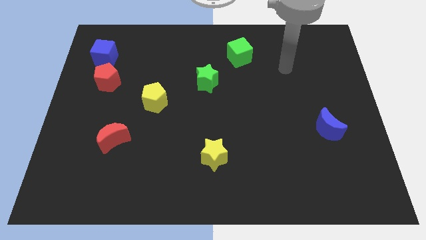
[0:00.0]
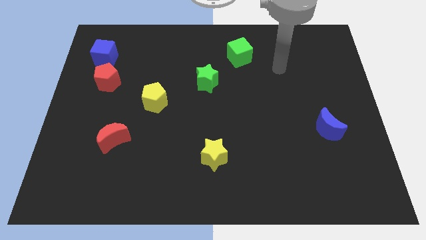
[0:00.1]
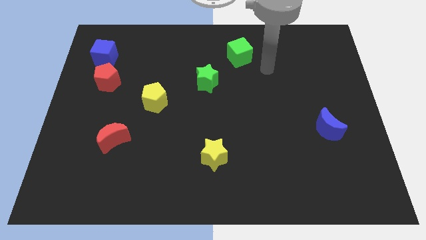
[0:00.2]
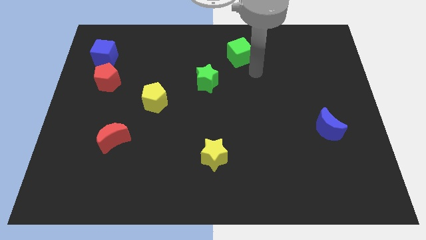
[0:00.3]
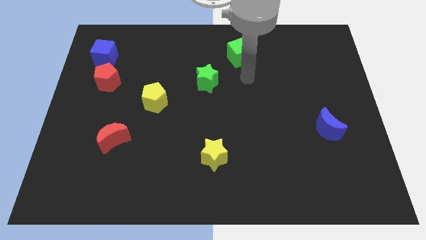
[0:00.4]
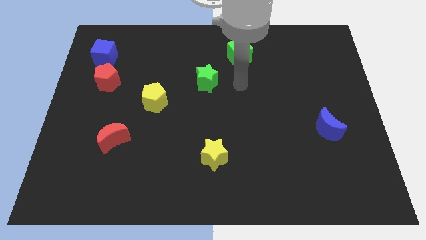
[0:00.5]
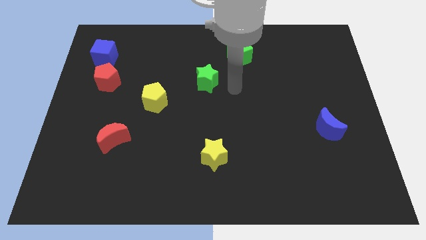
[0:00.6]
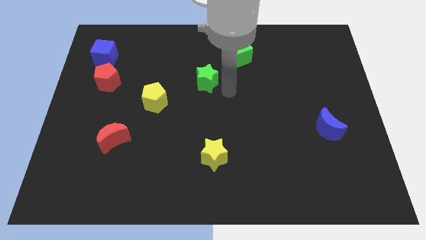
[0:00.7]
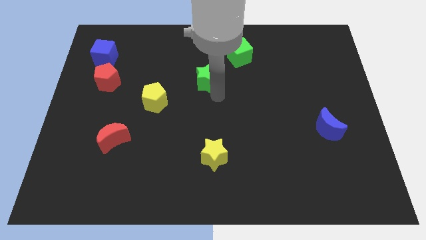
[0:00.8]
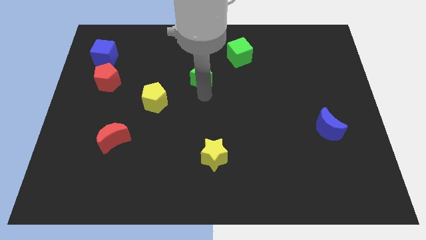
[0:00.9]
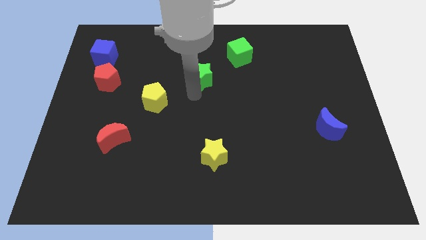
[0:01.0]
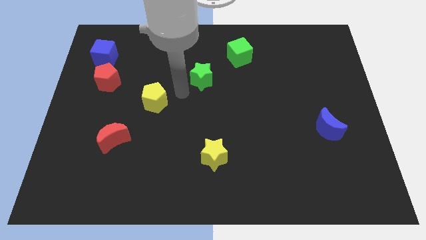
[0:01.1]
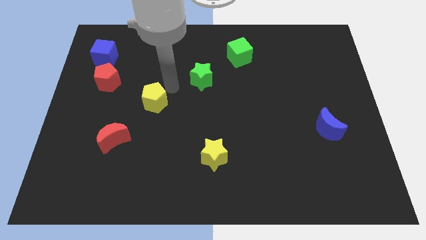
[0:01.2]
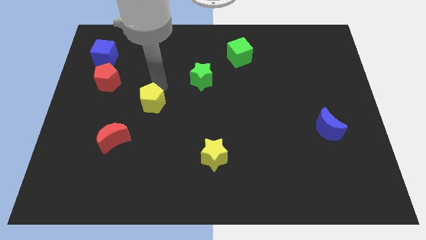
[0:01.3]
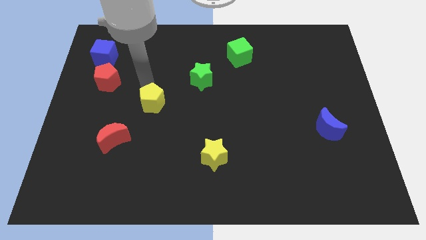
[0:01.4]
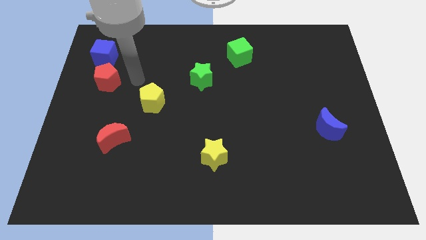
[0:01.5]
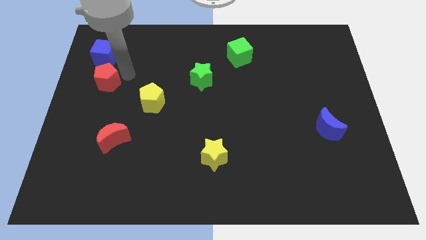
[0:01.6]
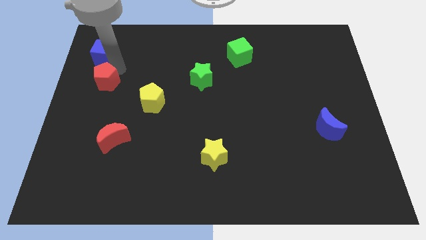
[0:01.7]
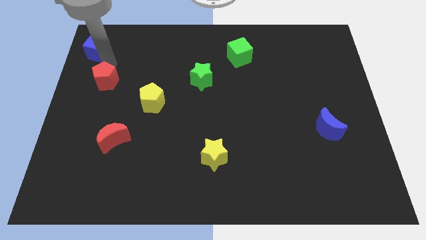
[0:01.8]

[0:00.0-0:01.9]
pull the red pentagon apart from the blue cube

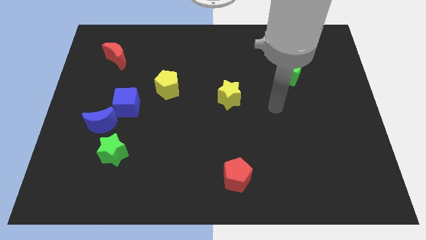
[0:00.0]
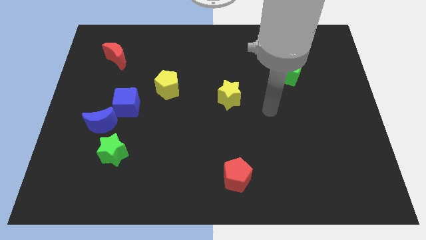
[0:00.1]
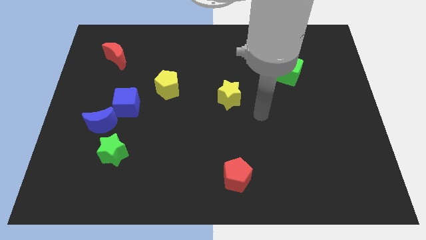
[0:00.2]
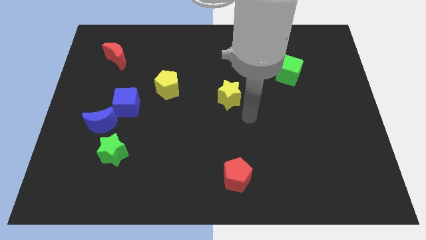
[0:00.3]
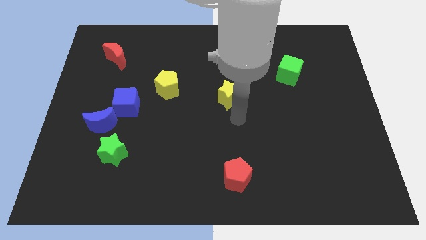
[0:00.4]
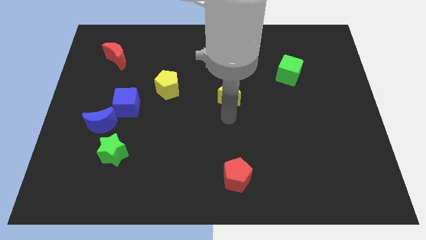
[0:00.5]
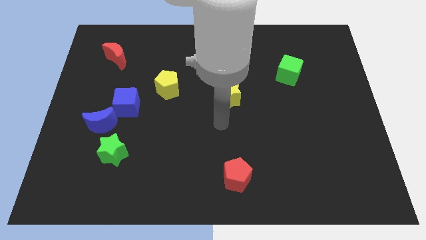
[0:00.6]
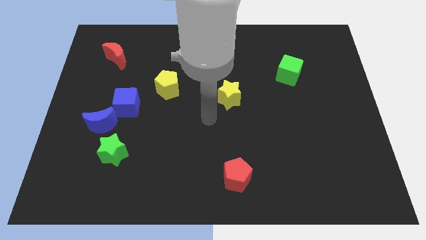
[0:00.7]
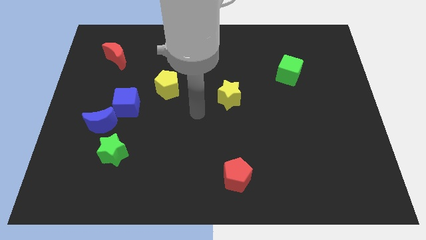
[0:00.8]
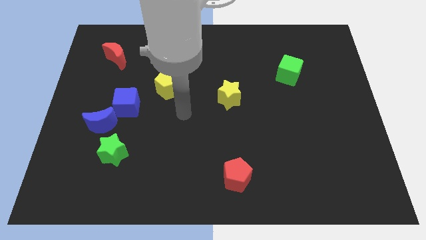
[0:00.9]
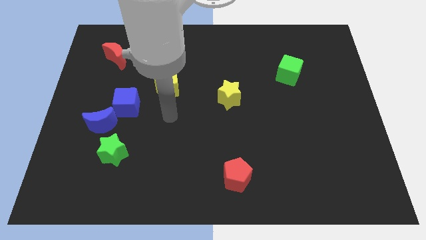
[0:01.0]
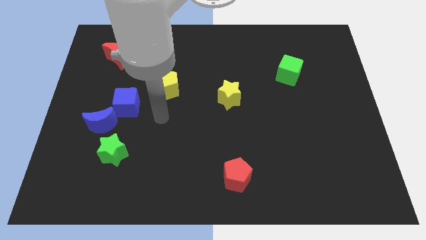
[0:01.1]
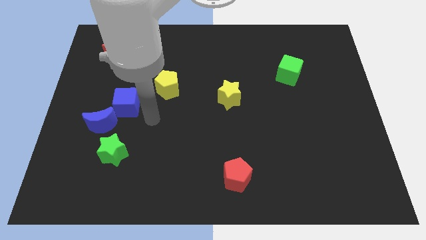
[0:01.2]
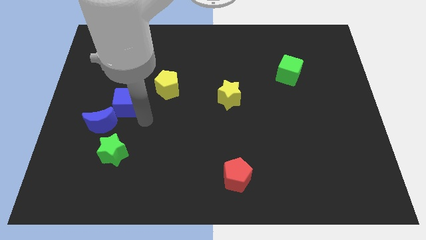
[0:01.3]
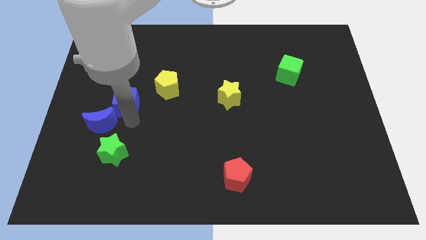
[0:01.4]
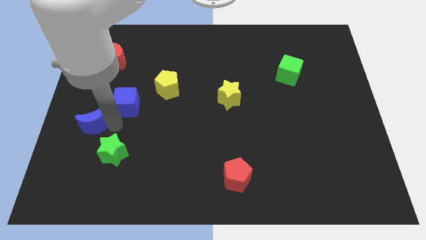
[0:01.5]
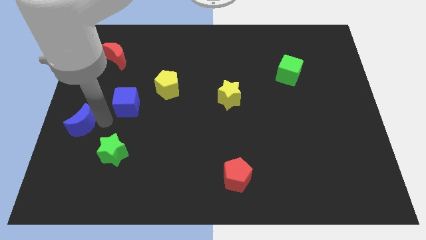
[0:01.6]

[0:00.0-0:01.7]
separate the blue cube from the blue moon

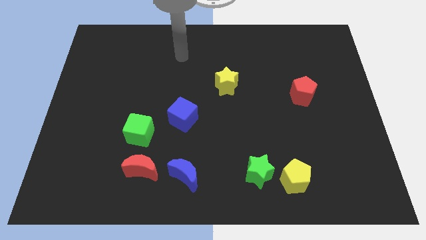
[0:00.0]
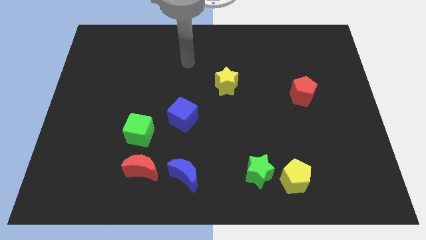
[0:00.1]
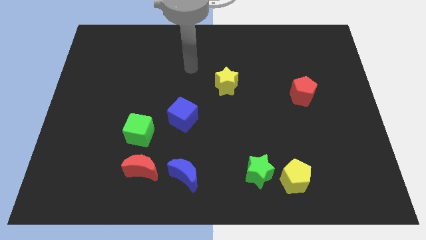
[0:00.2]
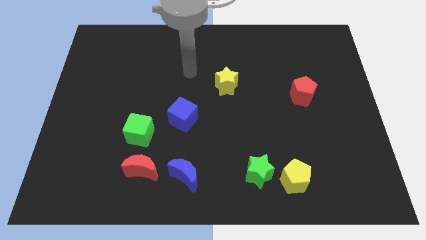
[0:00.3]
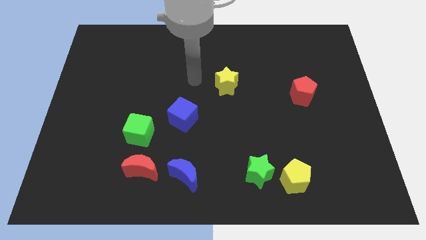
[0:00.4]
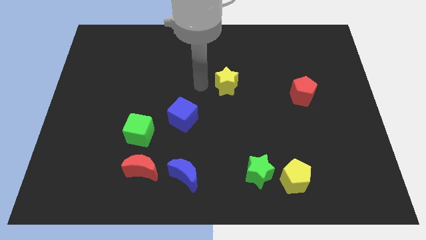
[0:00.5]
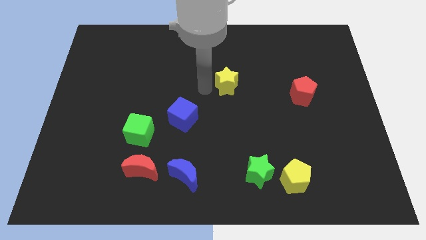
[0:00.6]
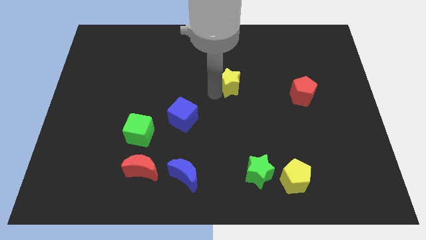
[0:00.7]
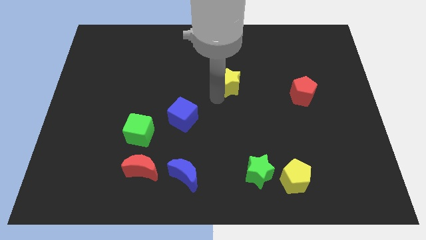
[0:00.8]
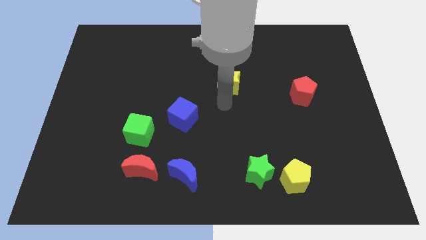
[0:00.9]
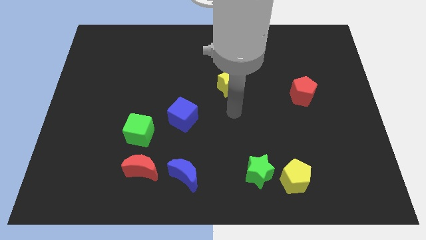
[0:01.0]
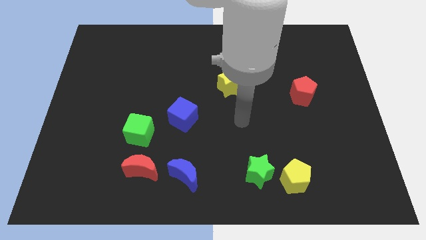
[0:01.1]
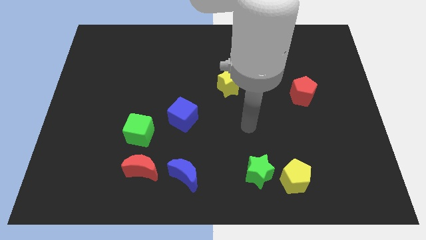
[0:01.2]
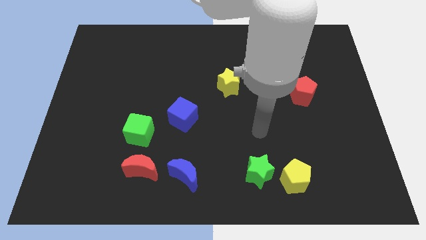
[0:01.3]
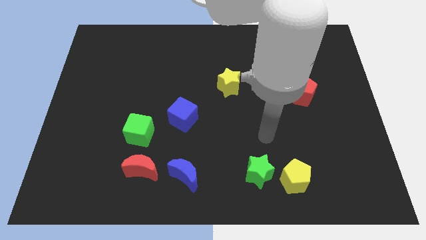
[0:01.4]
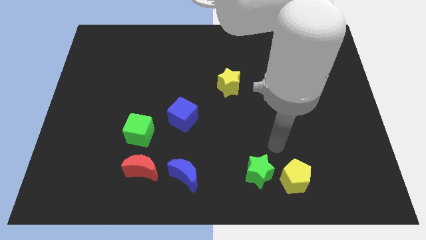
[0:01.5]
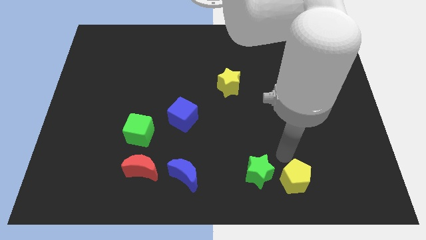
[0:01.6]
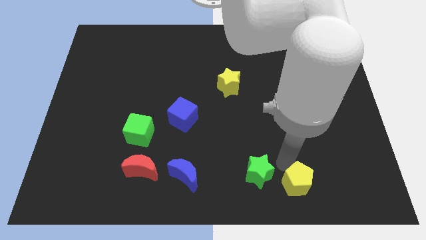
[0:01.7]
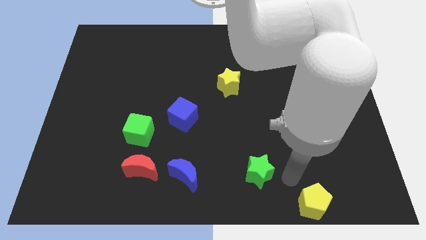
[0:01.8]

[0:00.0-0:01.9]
move the green star away from the yellow pentagon

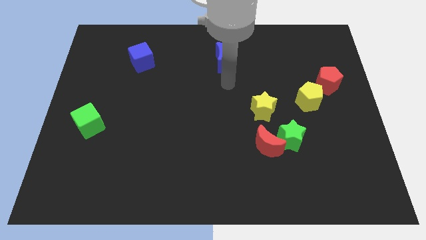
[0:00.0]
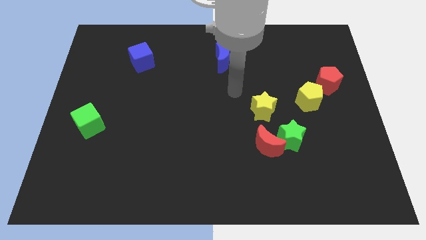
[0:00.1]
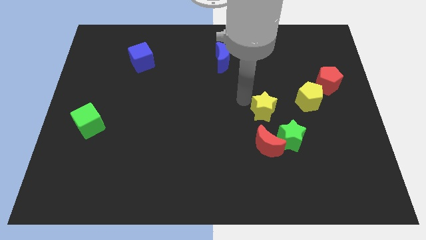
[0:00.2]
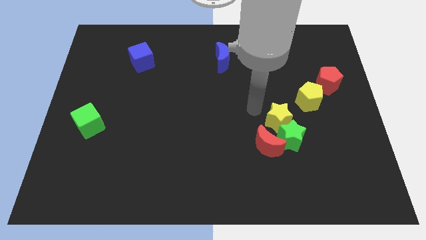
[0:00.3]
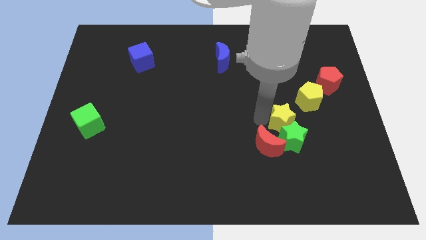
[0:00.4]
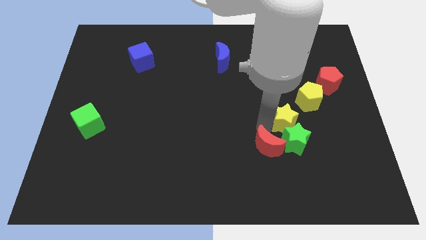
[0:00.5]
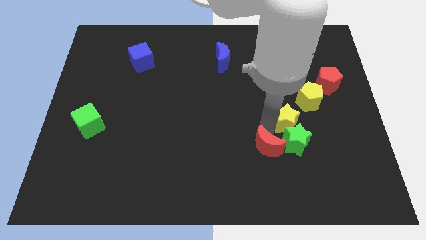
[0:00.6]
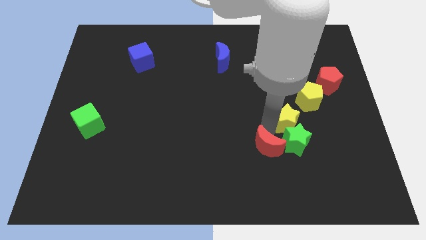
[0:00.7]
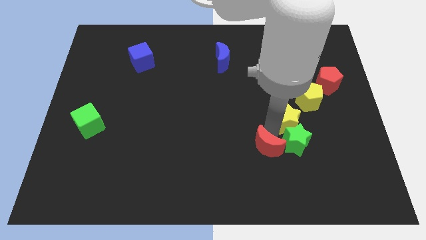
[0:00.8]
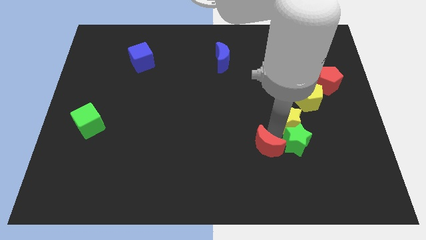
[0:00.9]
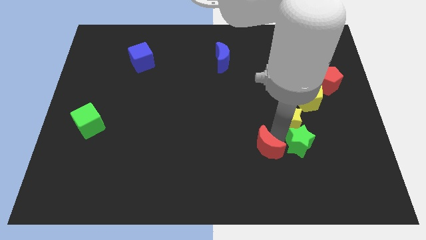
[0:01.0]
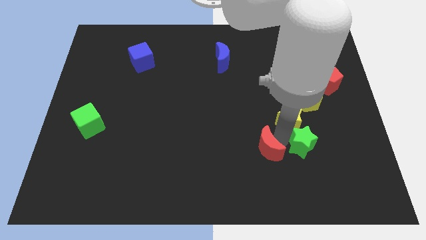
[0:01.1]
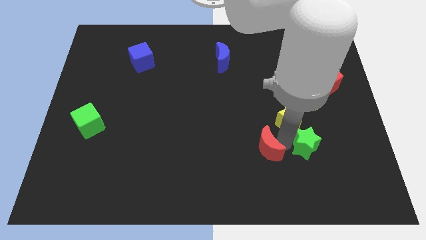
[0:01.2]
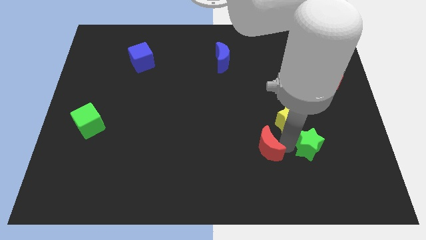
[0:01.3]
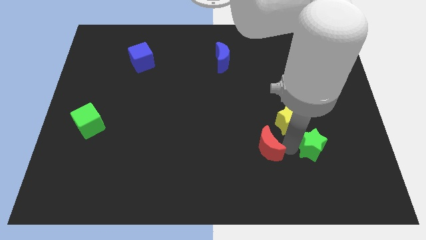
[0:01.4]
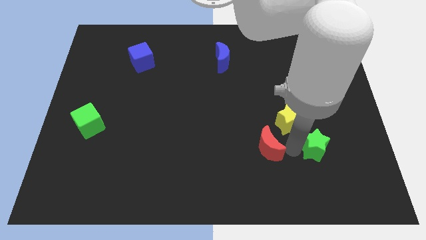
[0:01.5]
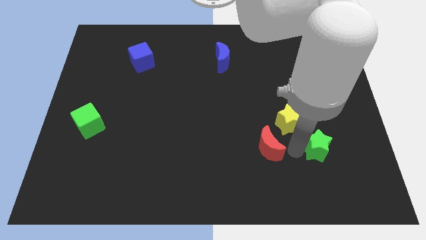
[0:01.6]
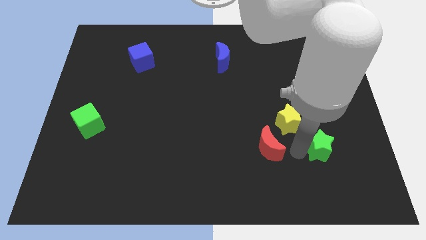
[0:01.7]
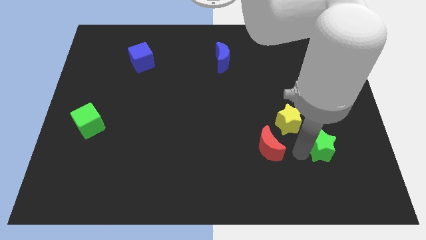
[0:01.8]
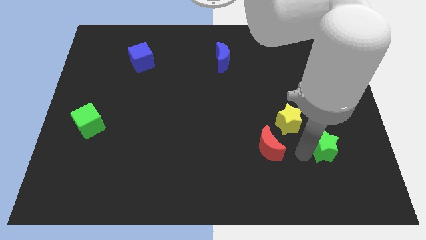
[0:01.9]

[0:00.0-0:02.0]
pull the green star apart from the red moon and yellow star

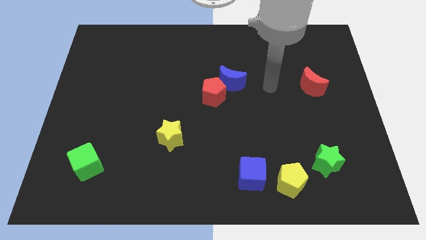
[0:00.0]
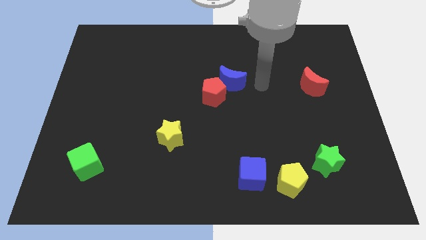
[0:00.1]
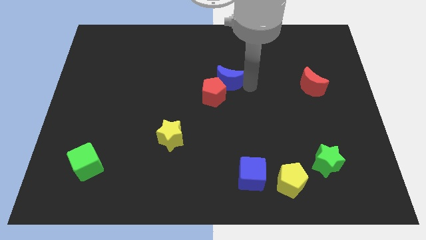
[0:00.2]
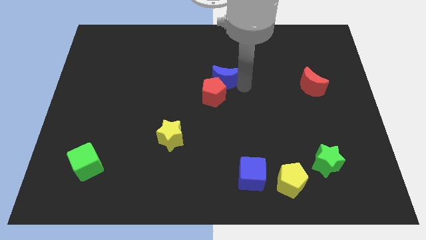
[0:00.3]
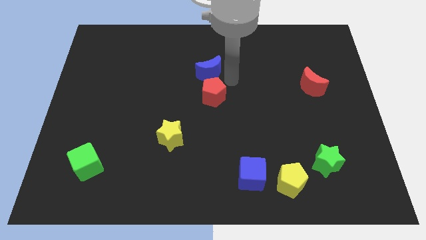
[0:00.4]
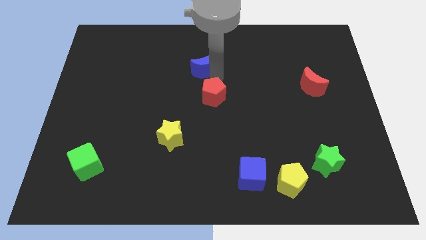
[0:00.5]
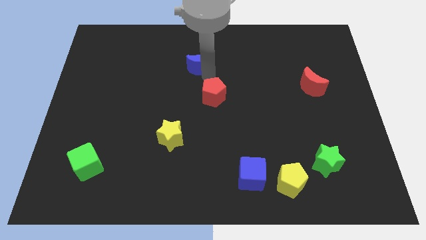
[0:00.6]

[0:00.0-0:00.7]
separate the red pentagon from the blue moon

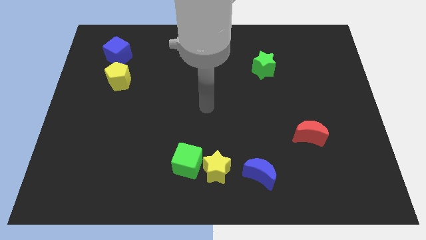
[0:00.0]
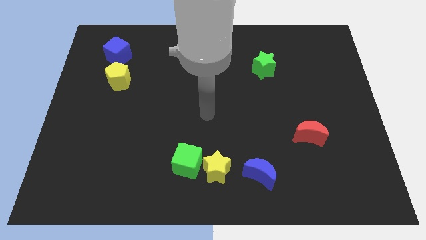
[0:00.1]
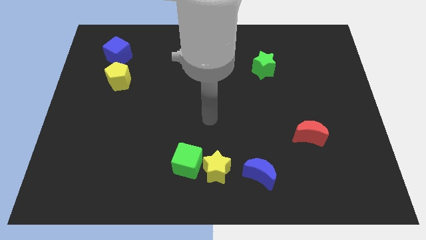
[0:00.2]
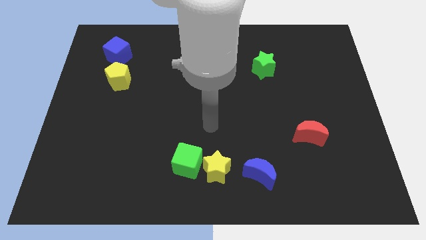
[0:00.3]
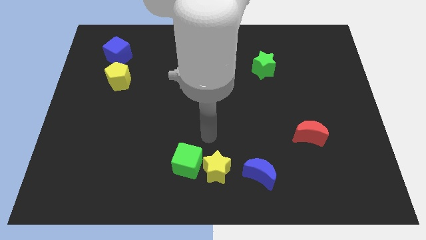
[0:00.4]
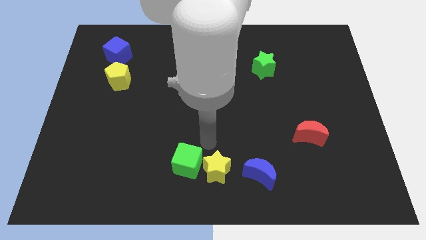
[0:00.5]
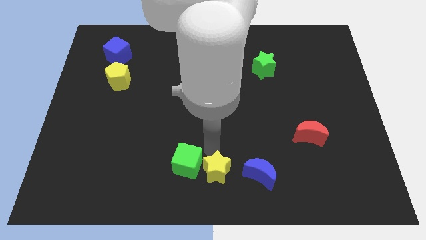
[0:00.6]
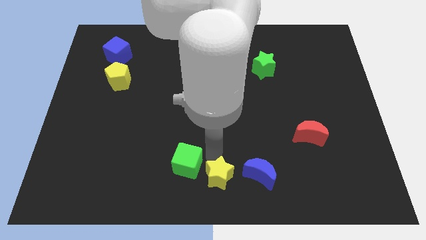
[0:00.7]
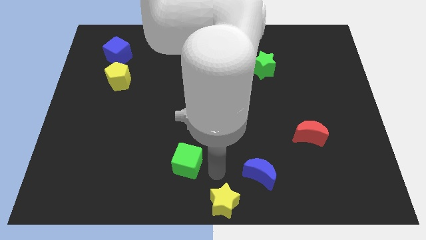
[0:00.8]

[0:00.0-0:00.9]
pull the green cube apart from the yellow star
